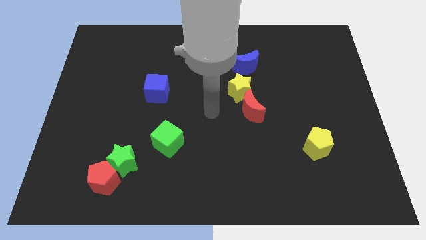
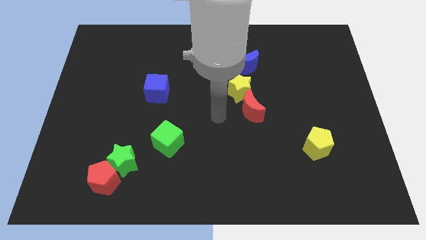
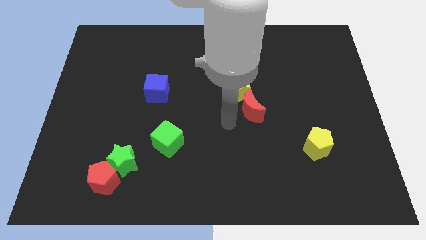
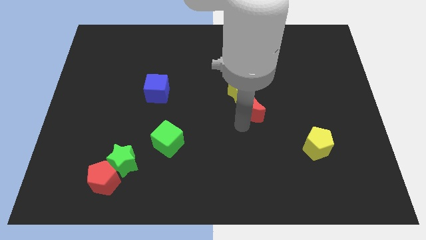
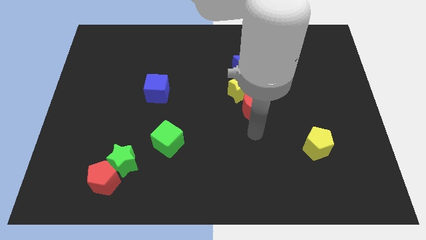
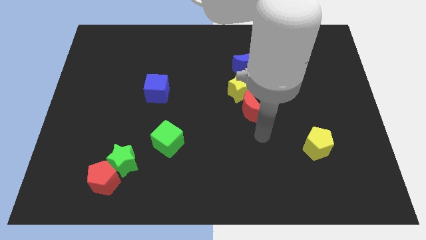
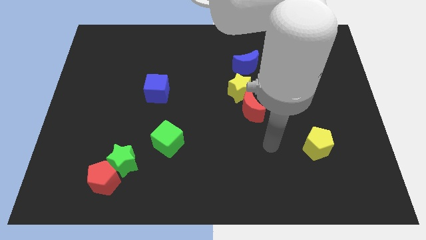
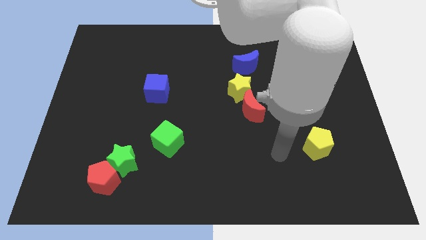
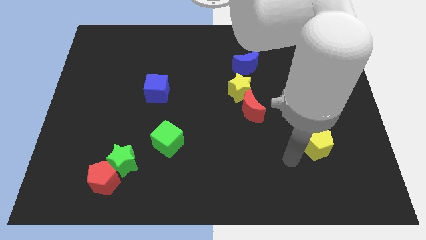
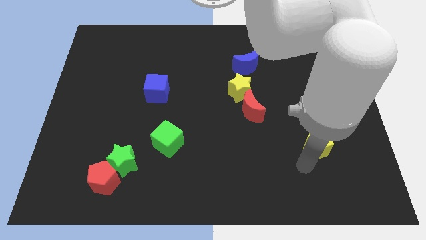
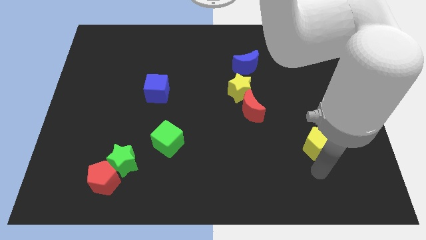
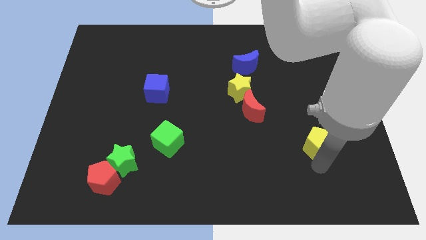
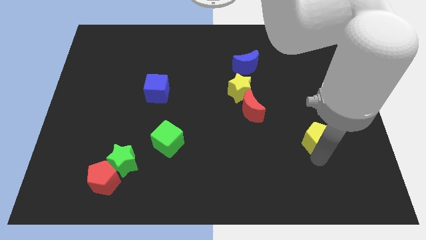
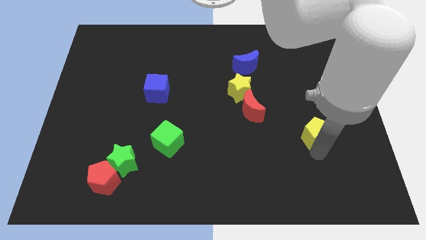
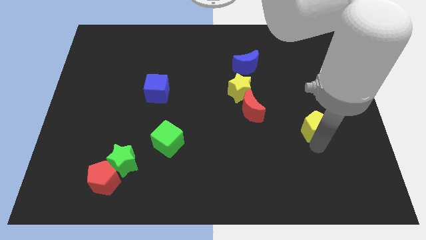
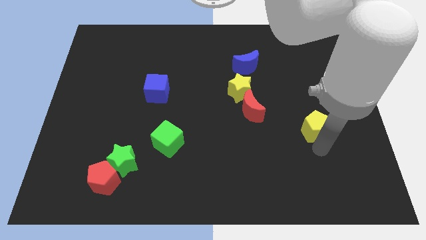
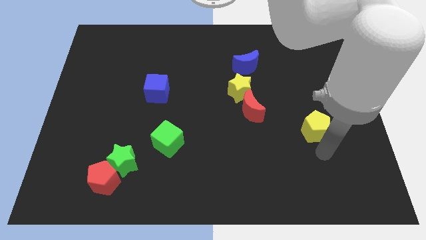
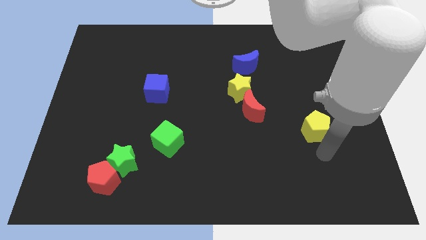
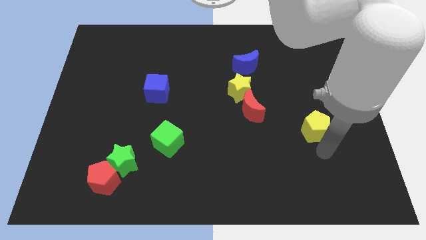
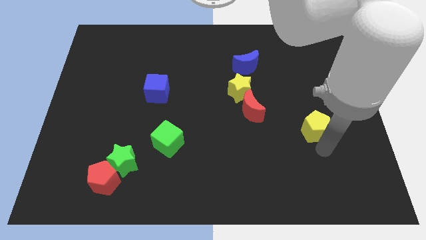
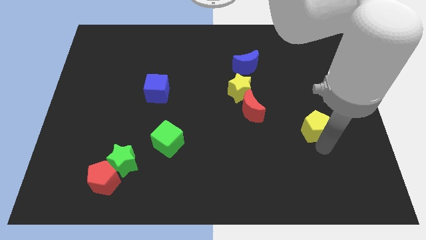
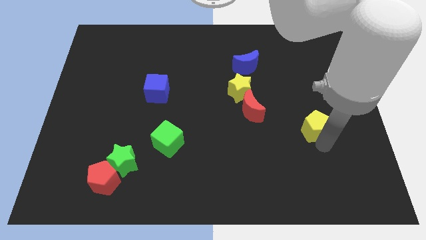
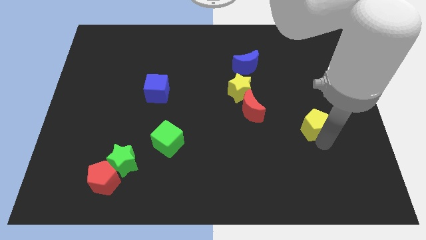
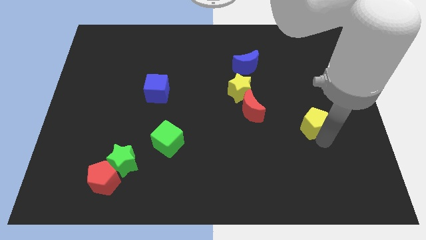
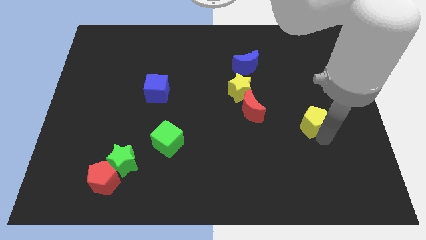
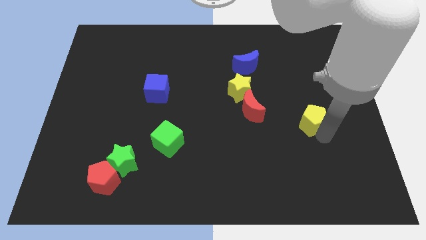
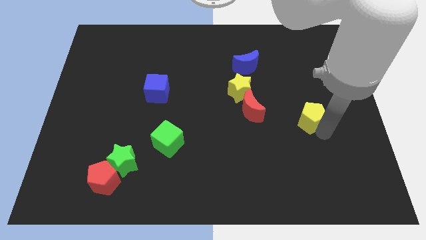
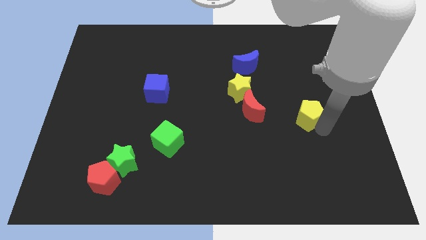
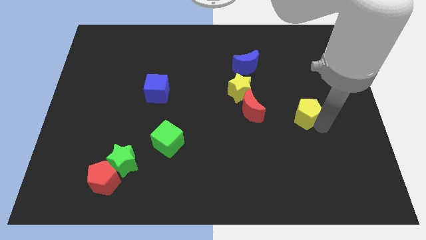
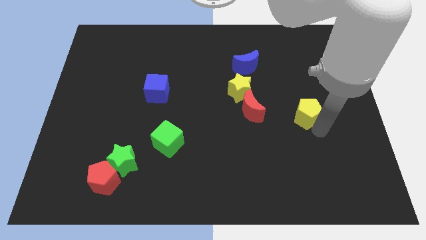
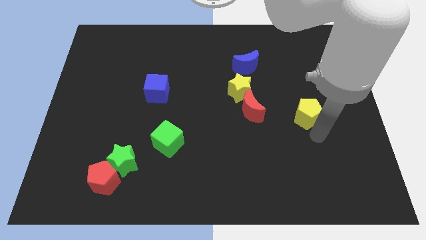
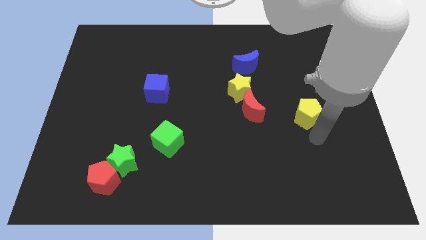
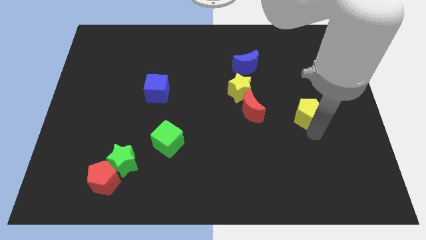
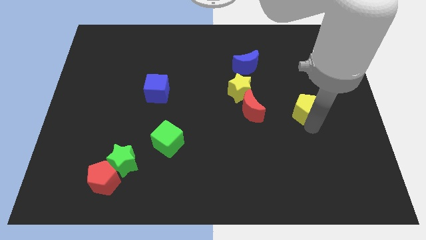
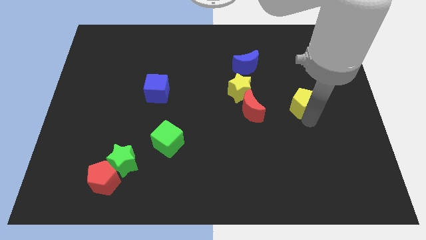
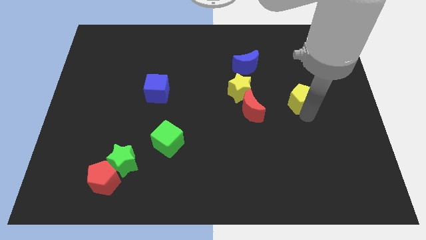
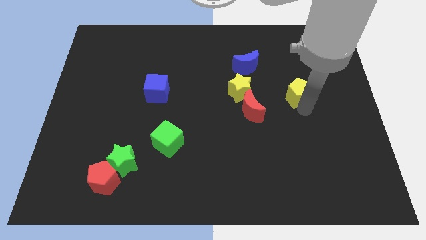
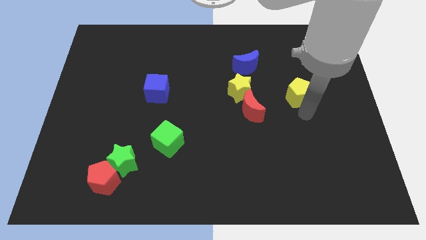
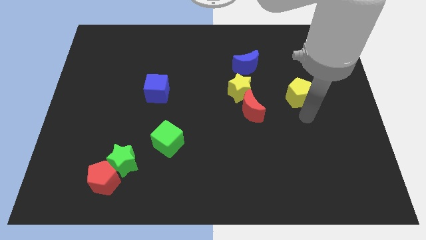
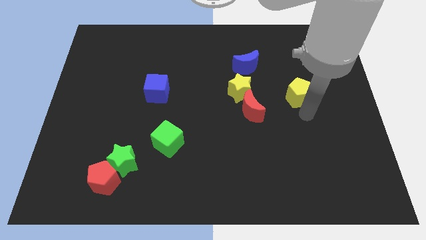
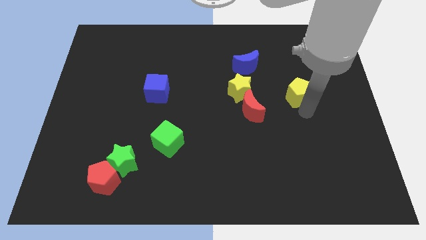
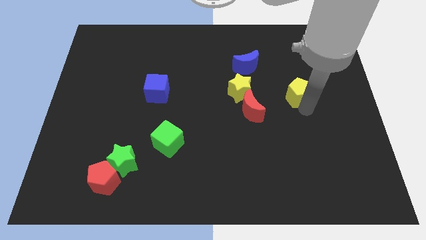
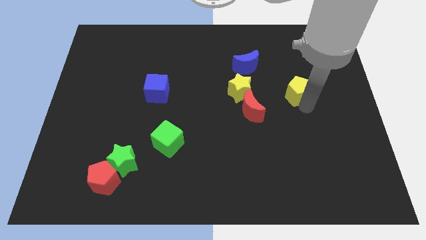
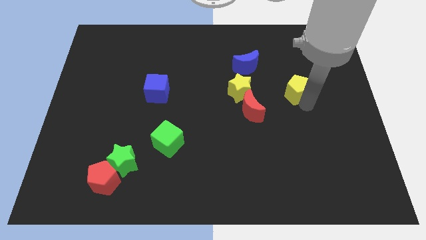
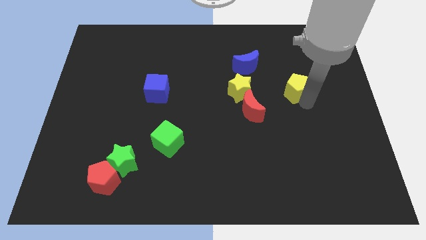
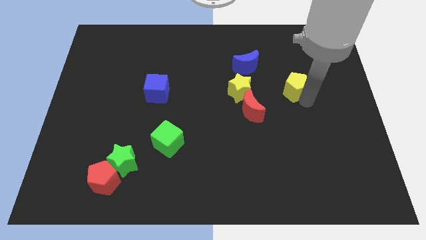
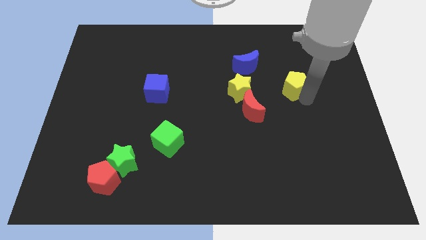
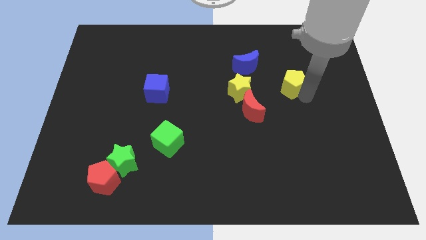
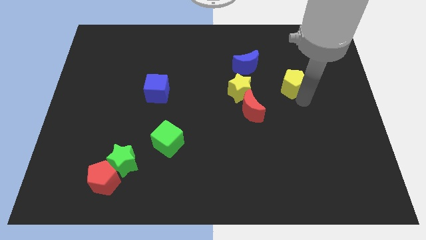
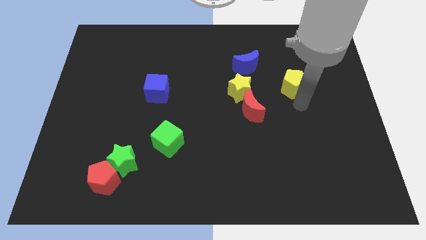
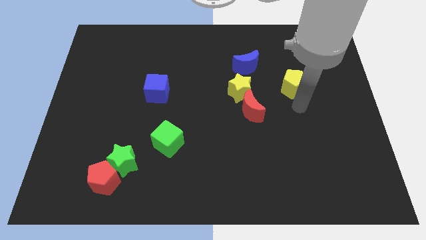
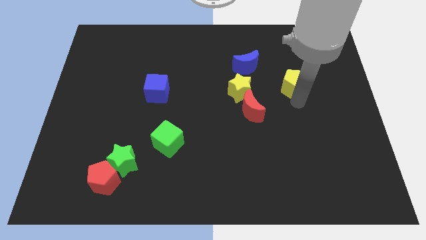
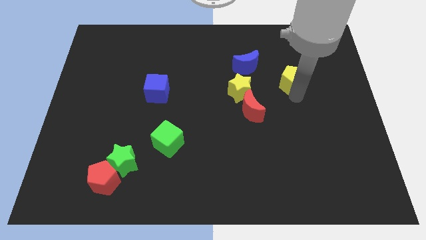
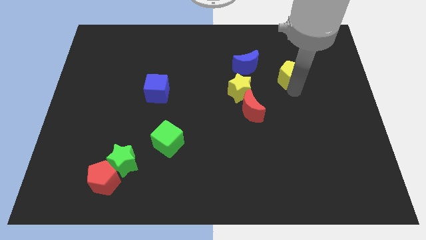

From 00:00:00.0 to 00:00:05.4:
put the yellow pentagon to the right side of the blue moon

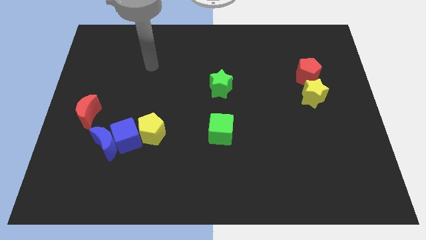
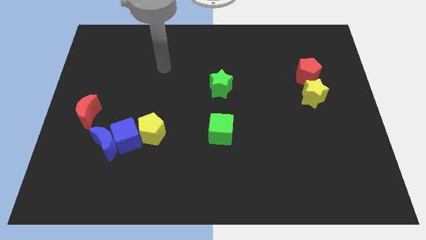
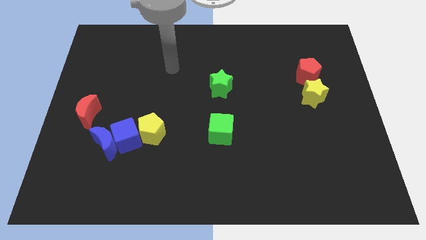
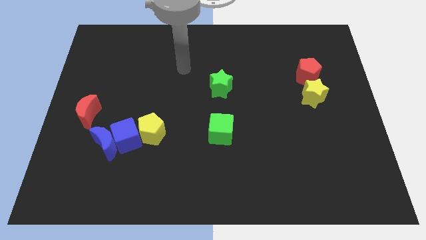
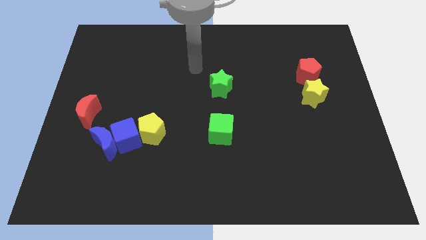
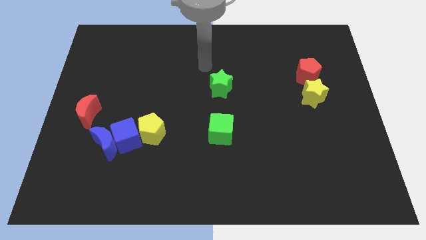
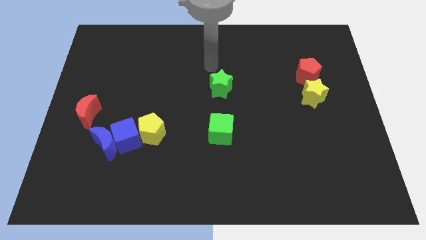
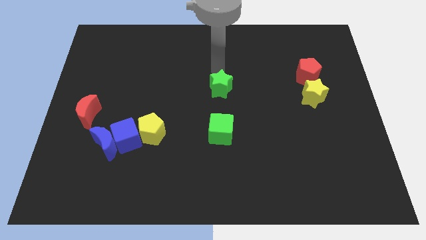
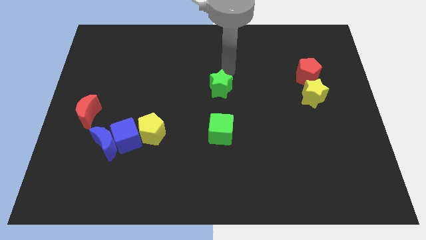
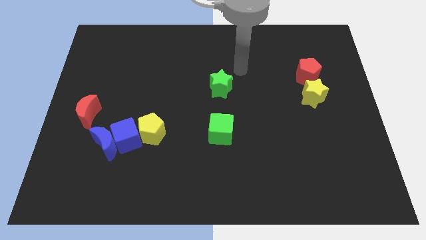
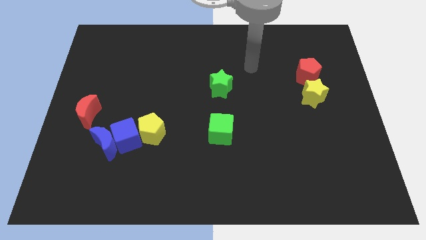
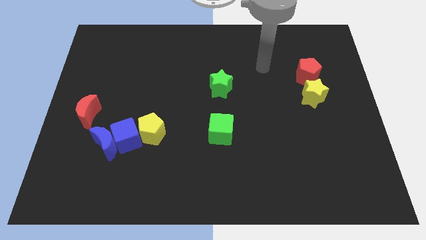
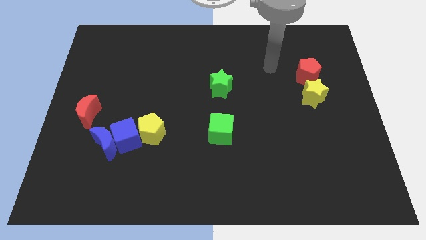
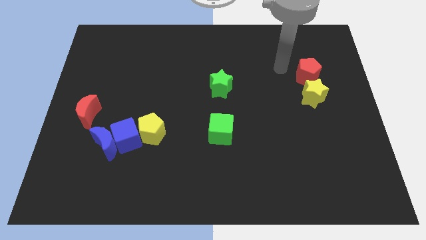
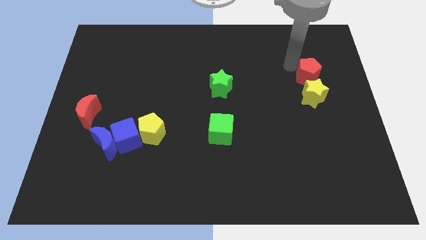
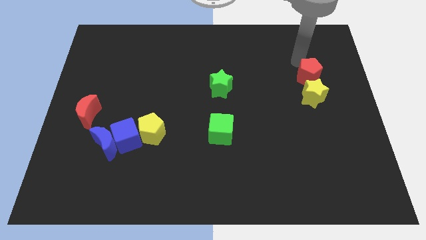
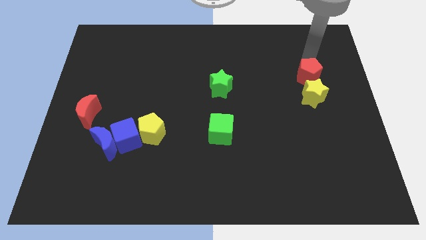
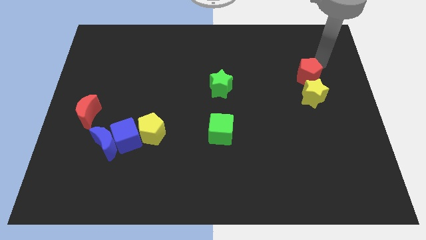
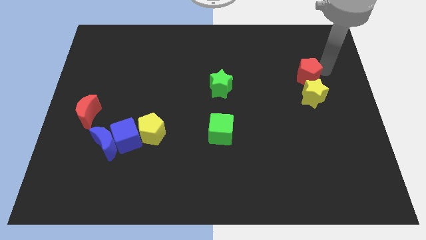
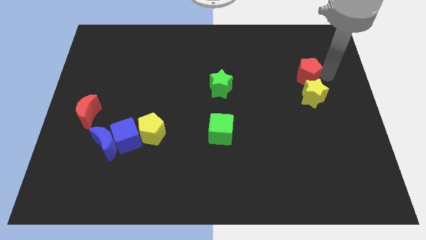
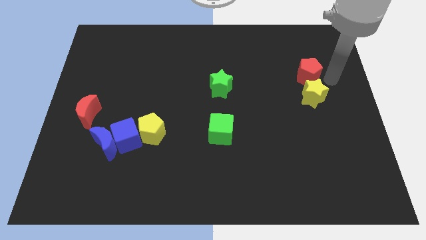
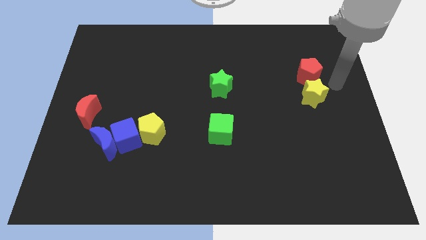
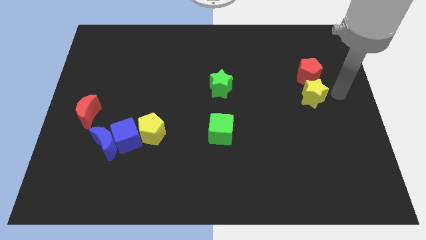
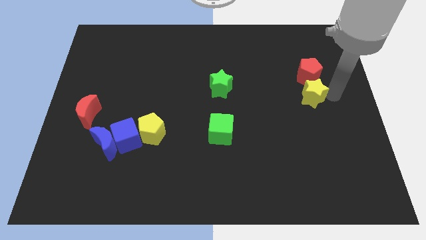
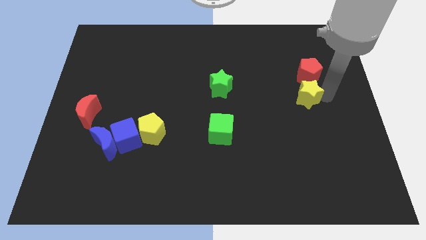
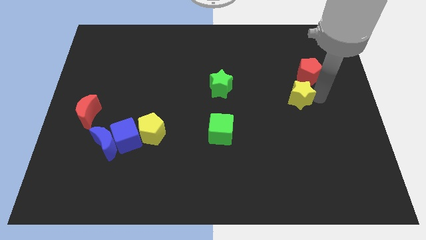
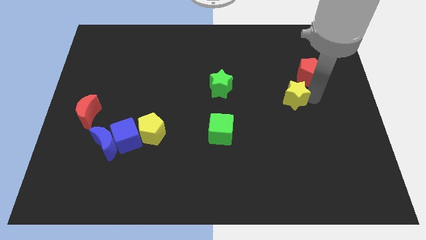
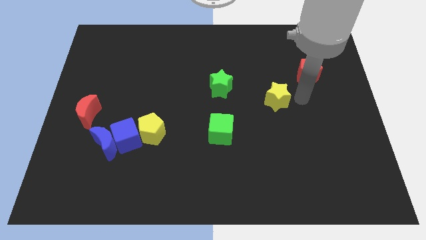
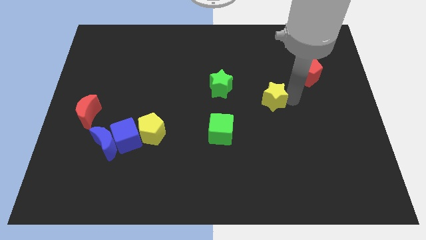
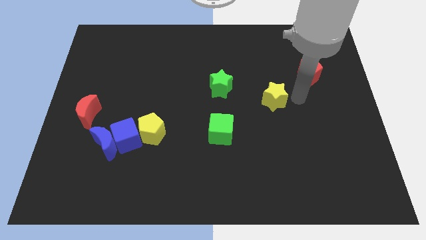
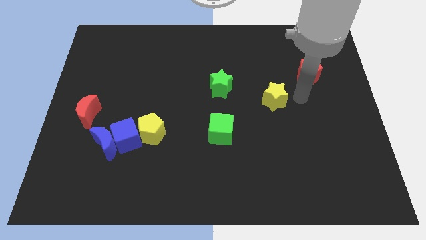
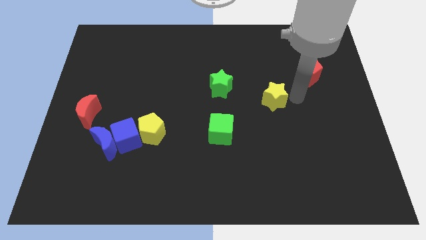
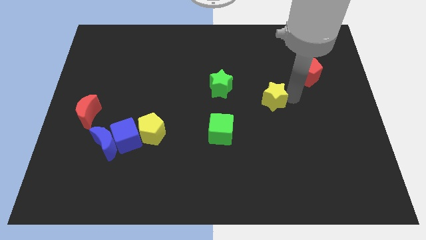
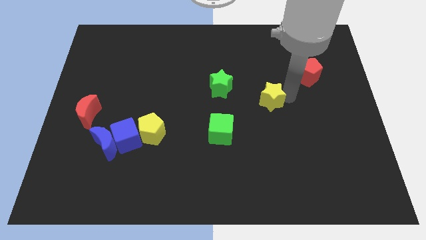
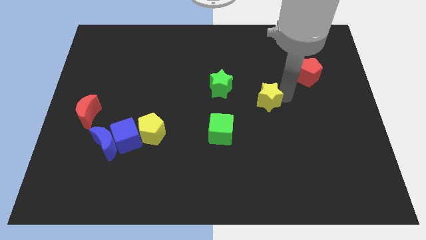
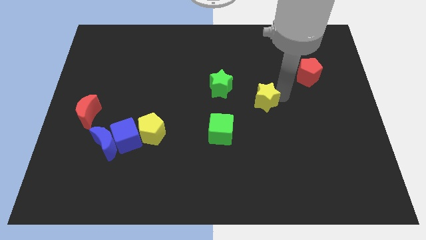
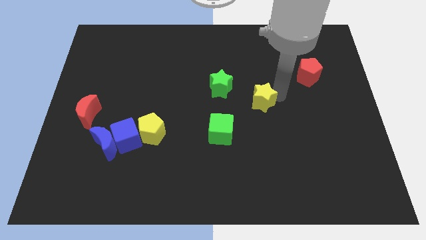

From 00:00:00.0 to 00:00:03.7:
push the yellow star to the bottom right of the green star
